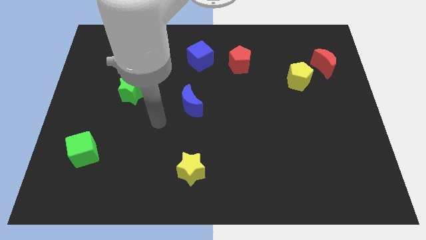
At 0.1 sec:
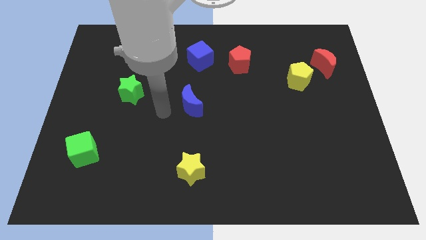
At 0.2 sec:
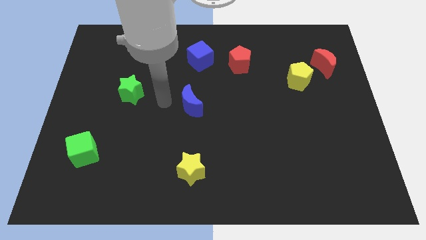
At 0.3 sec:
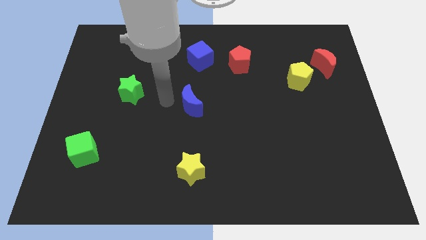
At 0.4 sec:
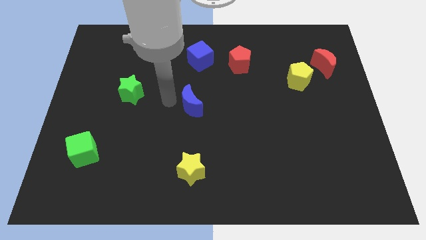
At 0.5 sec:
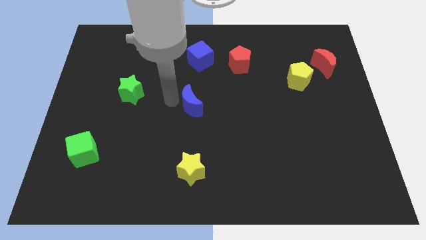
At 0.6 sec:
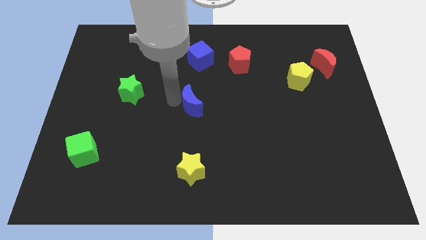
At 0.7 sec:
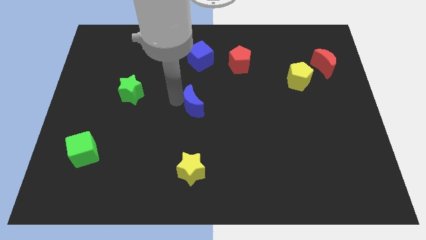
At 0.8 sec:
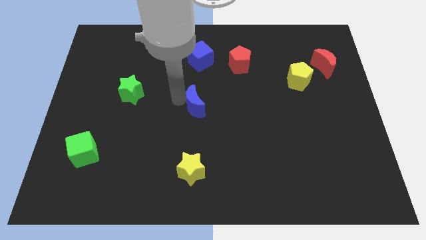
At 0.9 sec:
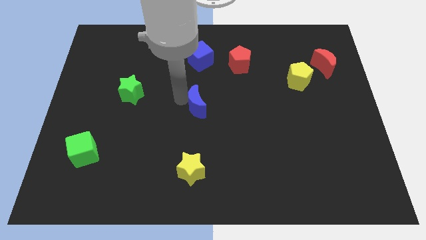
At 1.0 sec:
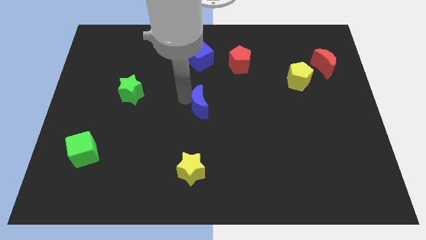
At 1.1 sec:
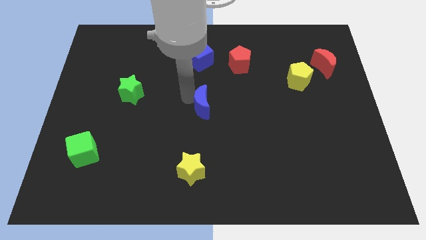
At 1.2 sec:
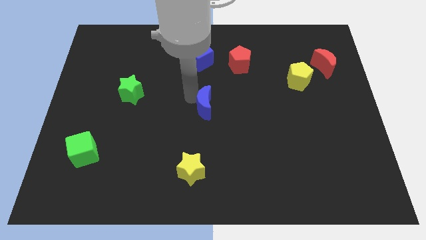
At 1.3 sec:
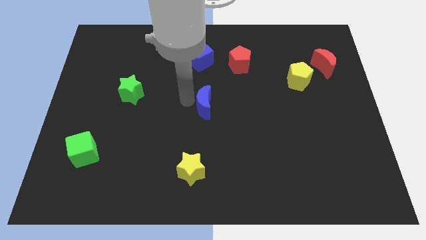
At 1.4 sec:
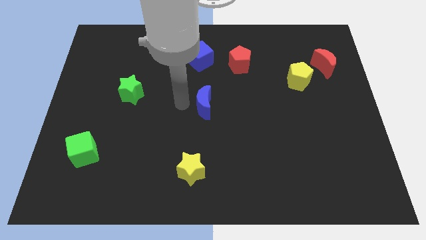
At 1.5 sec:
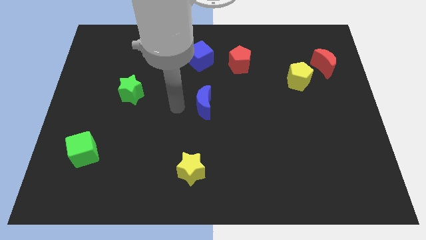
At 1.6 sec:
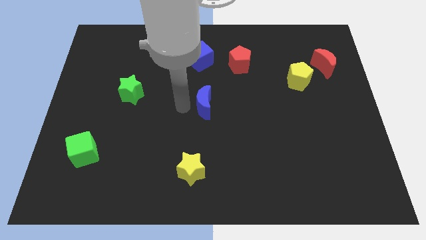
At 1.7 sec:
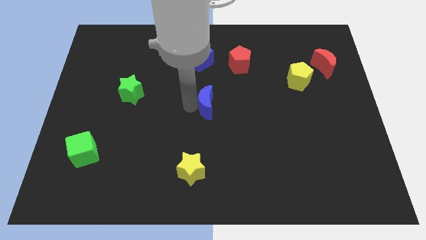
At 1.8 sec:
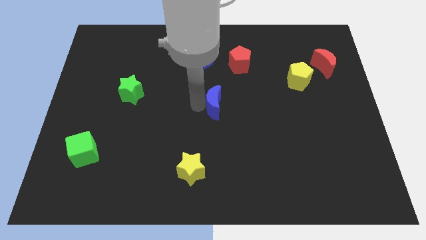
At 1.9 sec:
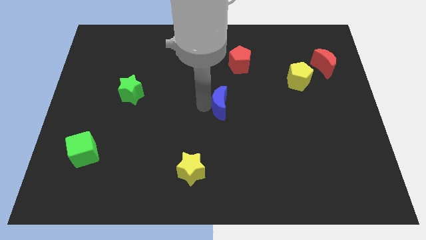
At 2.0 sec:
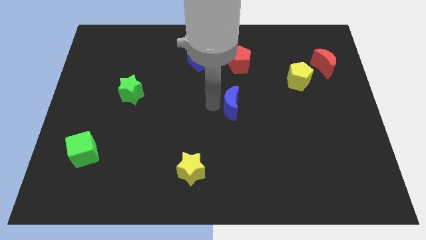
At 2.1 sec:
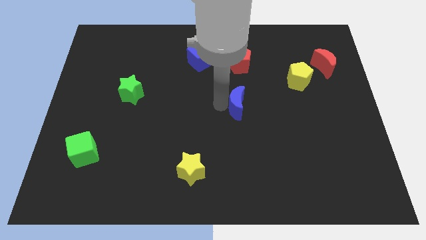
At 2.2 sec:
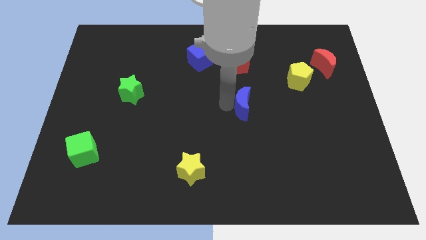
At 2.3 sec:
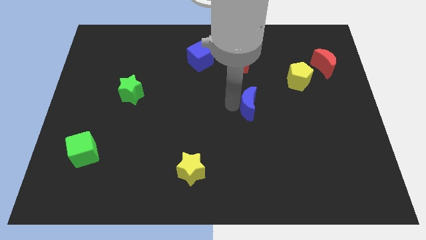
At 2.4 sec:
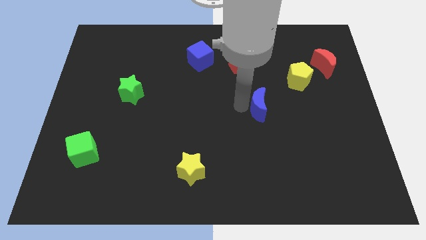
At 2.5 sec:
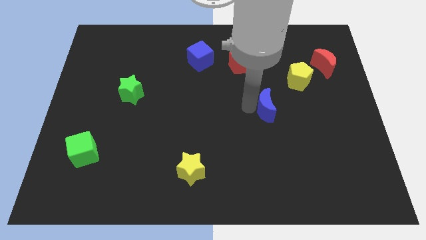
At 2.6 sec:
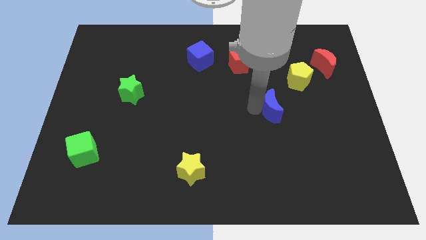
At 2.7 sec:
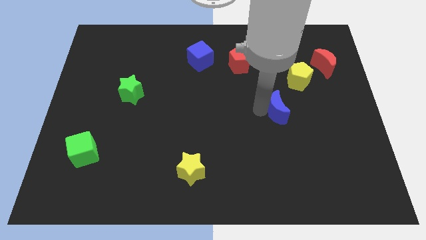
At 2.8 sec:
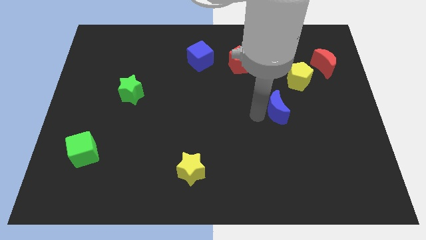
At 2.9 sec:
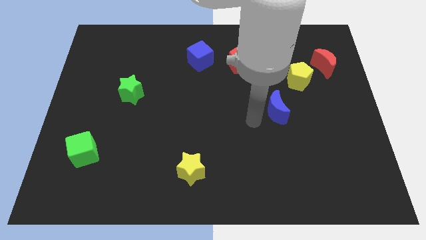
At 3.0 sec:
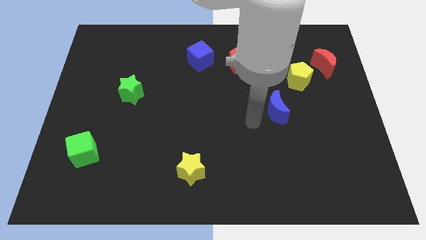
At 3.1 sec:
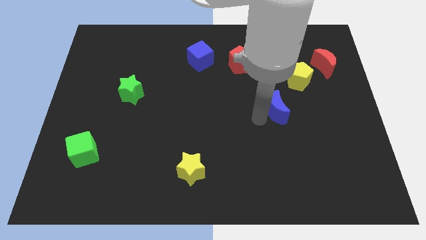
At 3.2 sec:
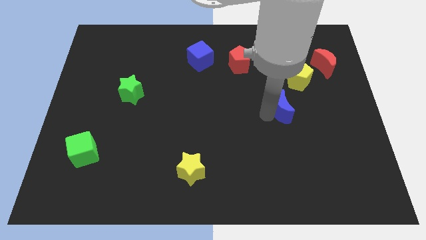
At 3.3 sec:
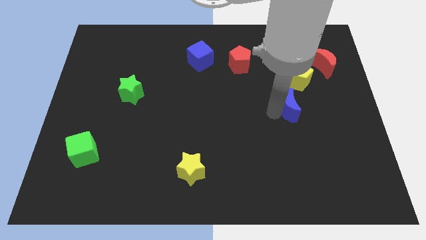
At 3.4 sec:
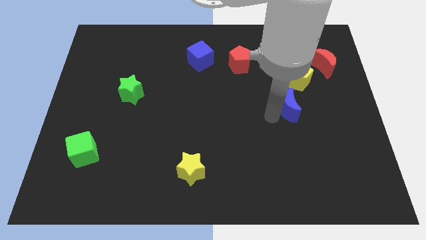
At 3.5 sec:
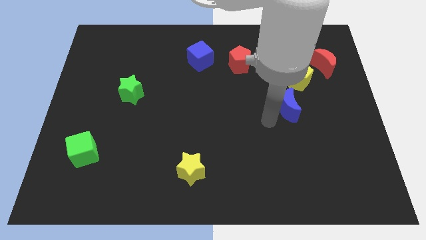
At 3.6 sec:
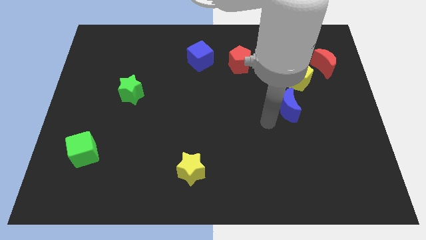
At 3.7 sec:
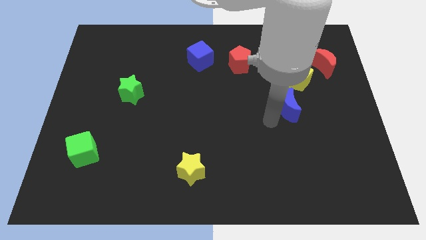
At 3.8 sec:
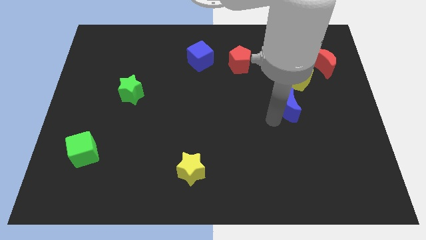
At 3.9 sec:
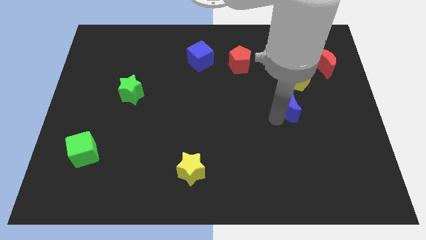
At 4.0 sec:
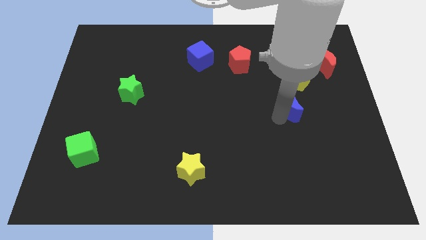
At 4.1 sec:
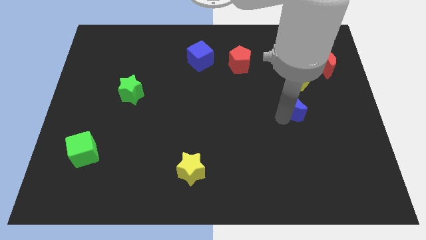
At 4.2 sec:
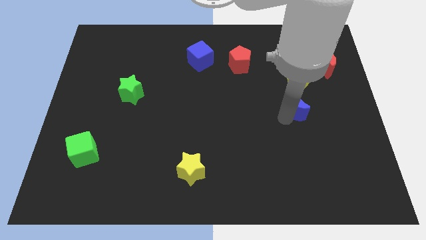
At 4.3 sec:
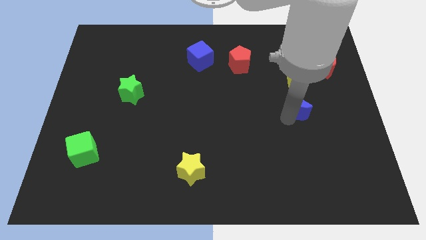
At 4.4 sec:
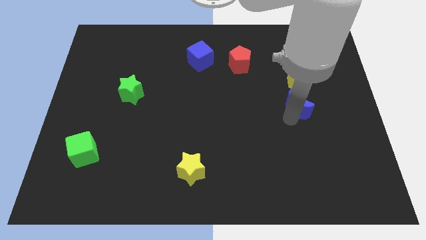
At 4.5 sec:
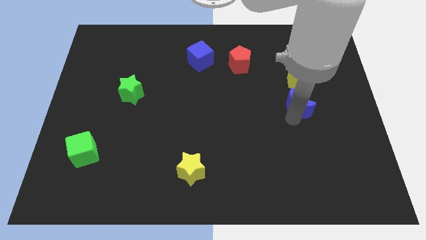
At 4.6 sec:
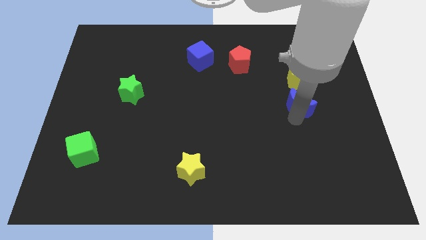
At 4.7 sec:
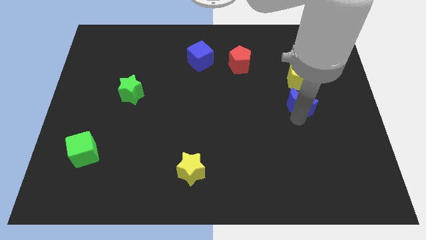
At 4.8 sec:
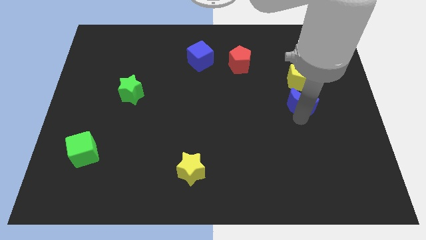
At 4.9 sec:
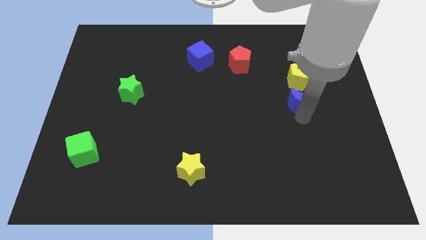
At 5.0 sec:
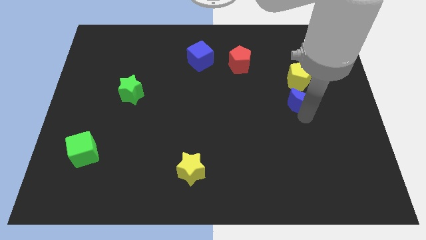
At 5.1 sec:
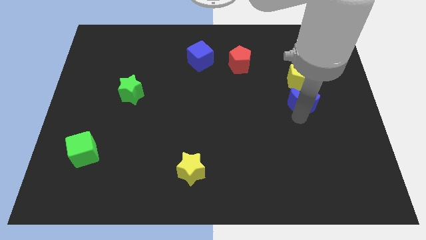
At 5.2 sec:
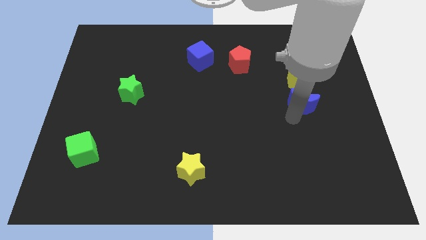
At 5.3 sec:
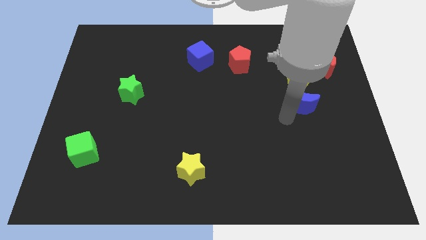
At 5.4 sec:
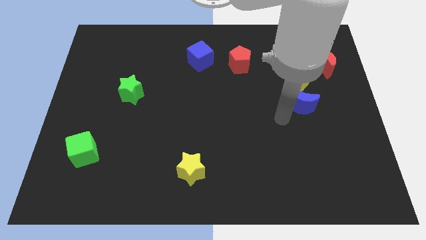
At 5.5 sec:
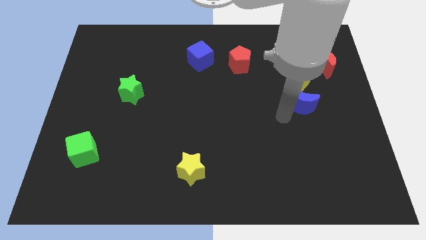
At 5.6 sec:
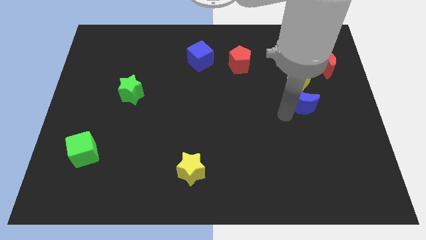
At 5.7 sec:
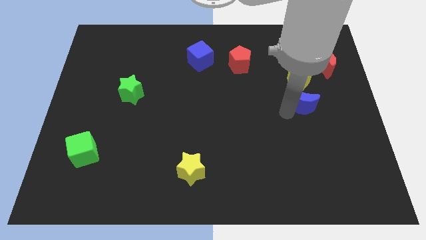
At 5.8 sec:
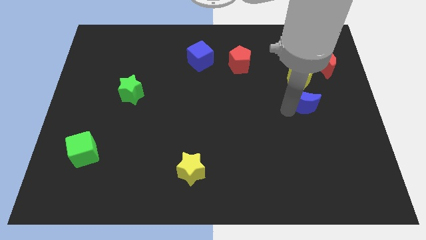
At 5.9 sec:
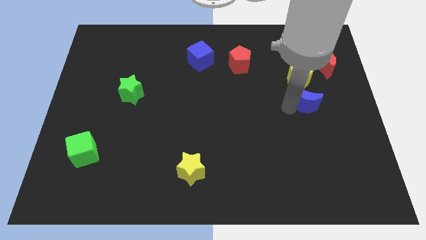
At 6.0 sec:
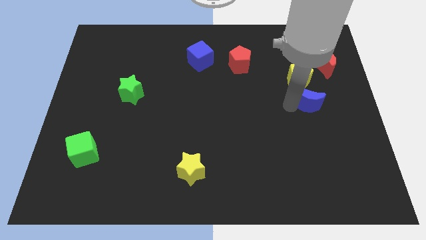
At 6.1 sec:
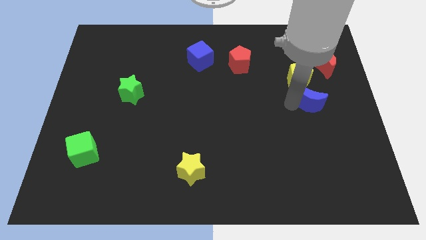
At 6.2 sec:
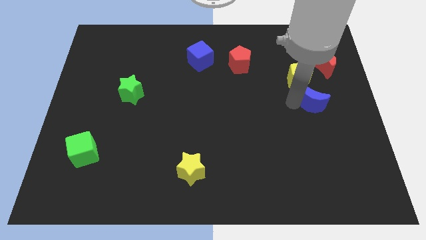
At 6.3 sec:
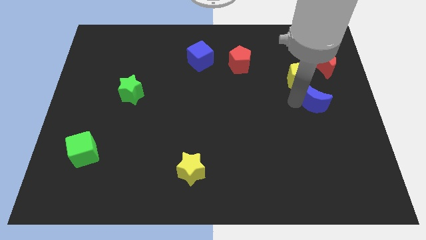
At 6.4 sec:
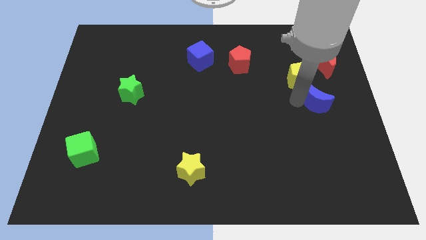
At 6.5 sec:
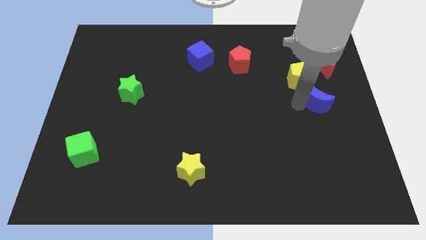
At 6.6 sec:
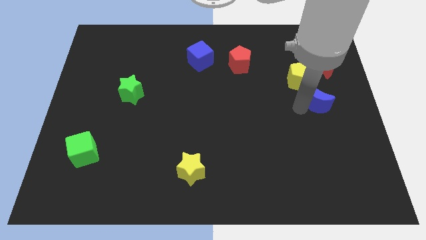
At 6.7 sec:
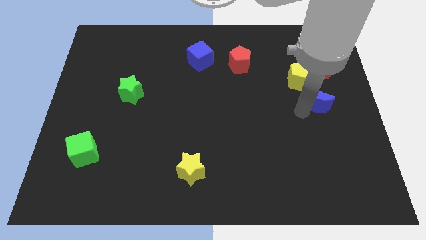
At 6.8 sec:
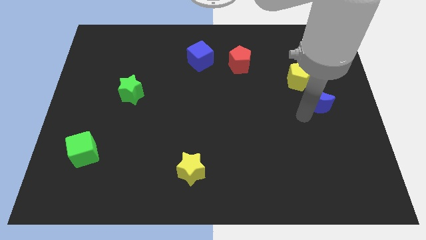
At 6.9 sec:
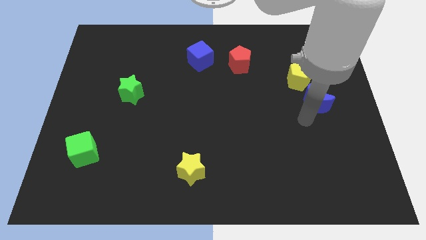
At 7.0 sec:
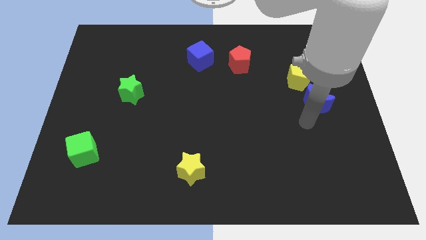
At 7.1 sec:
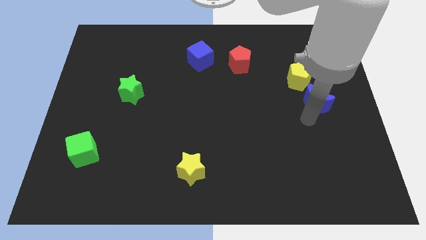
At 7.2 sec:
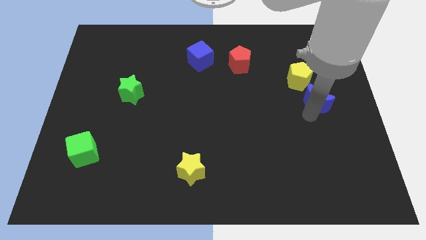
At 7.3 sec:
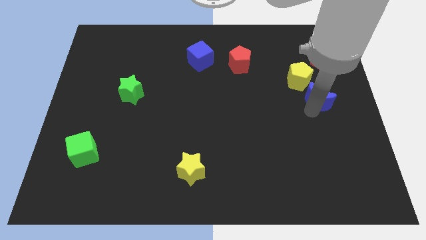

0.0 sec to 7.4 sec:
push the blue moon to the right side of the board
